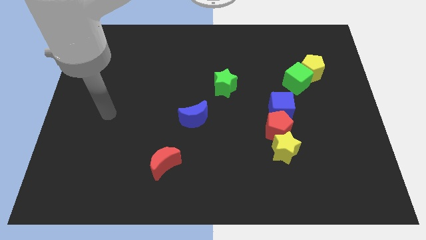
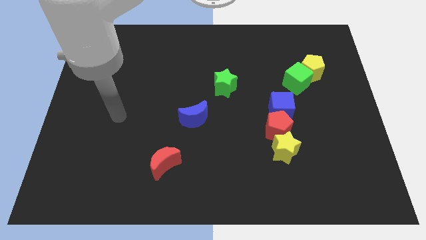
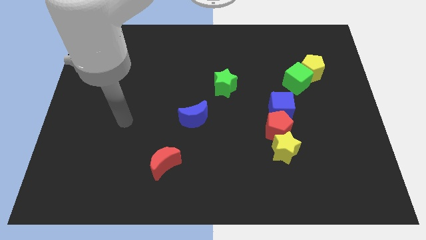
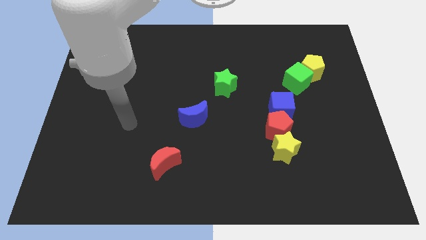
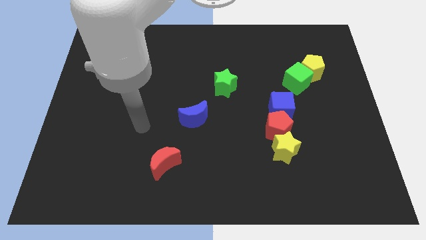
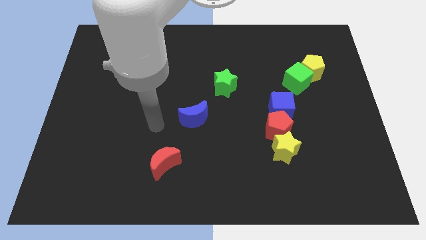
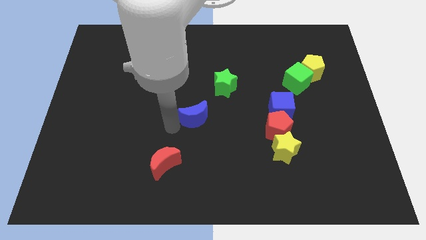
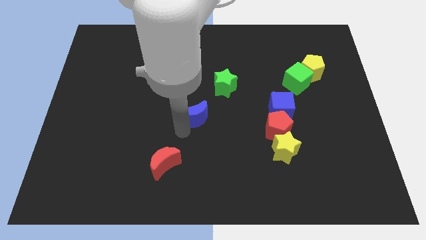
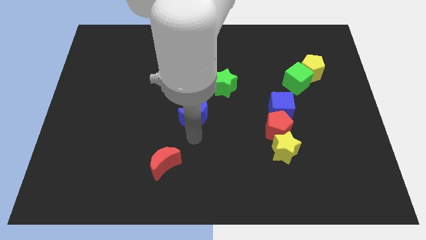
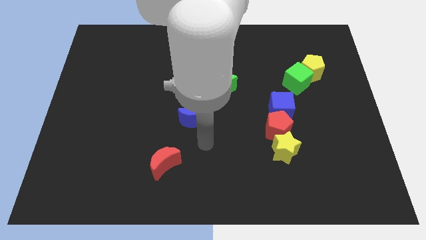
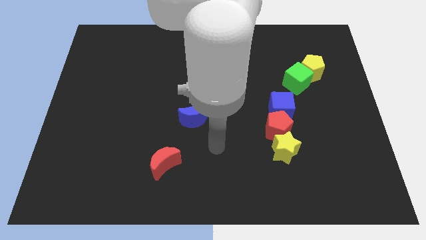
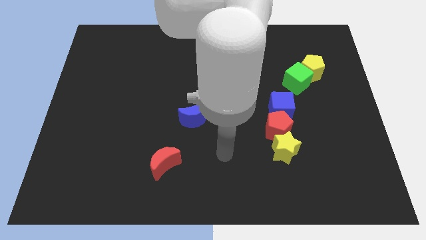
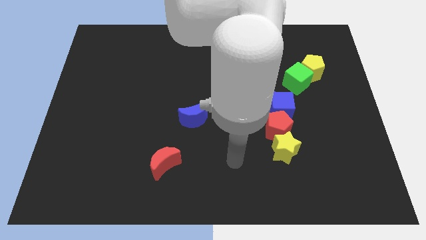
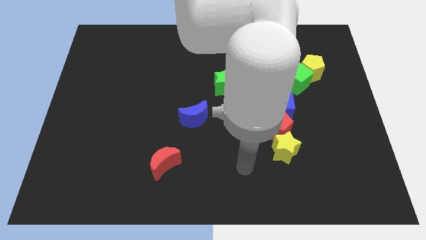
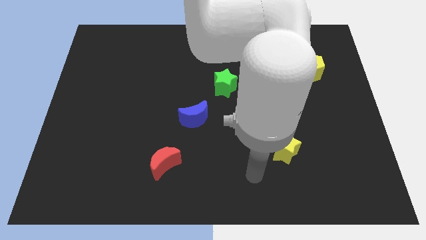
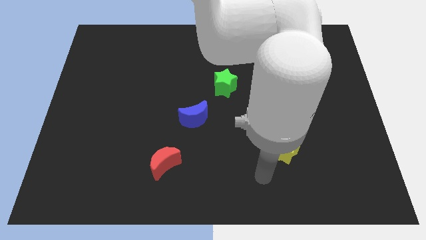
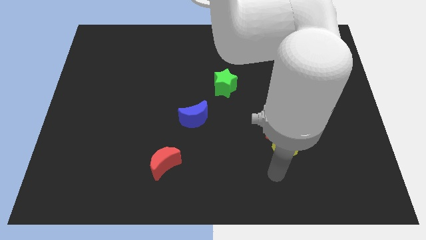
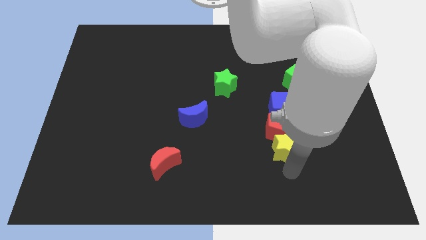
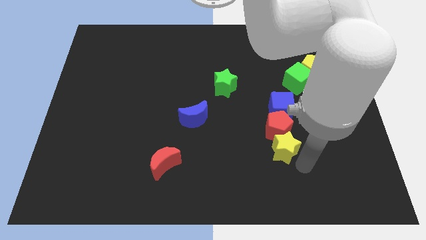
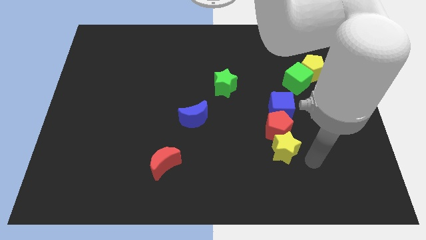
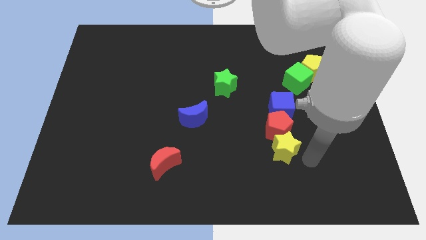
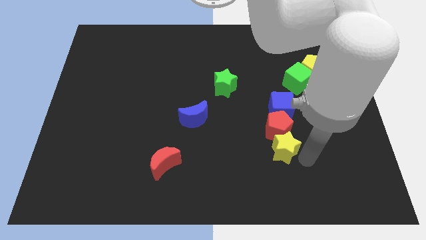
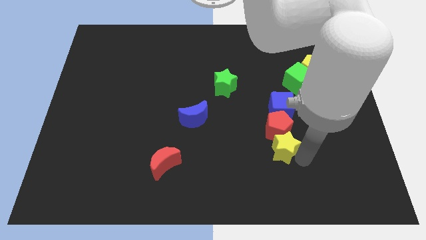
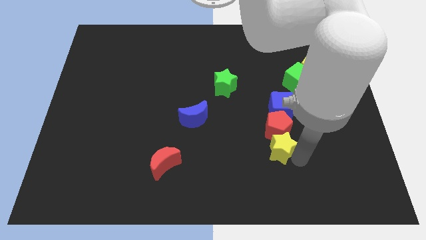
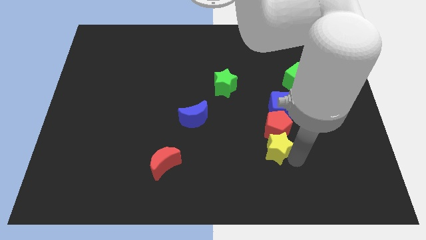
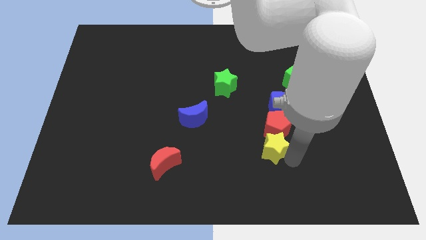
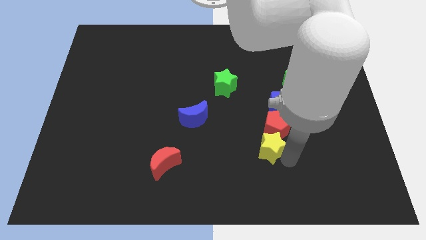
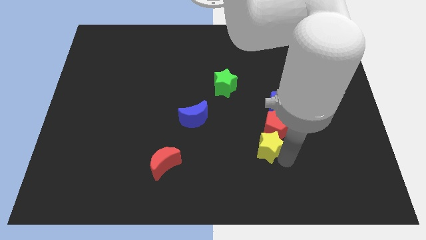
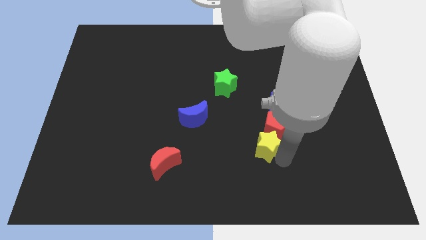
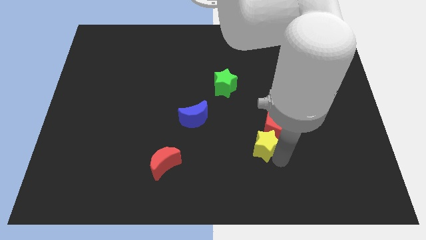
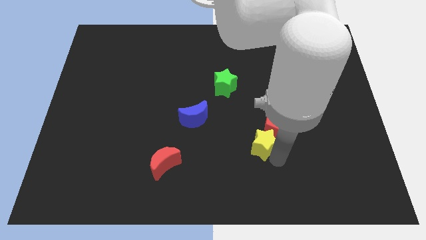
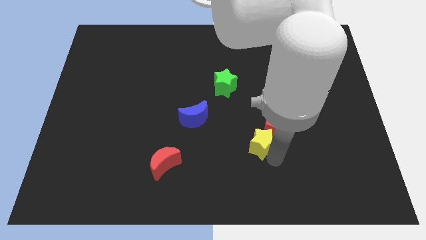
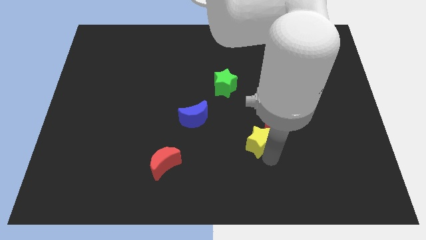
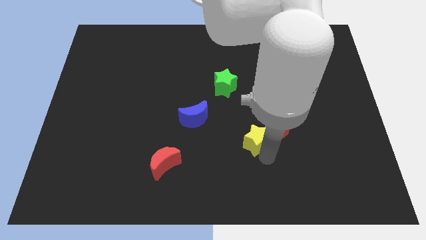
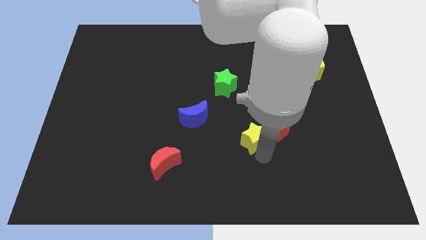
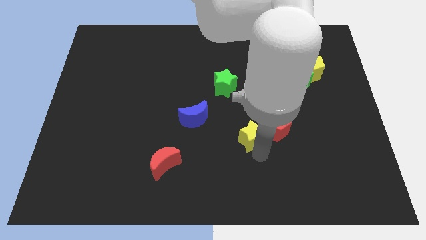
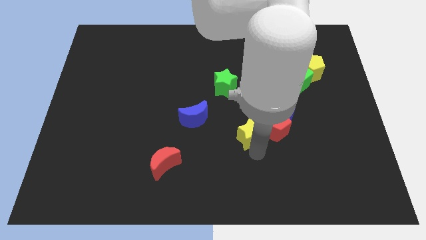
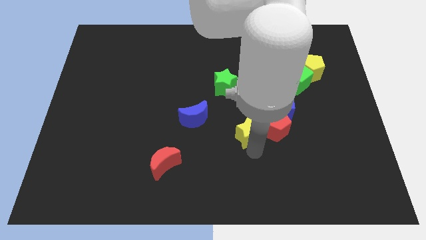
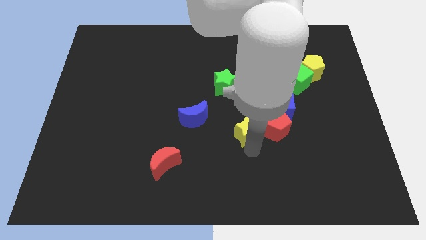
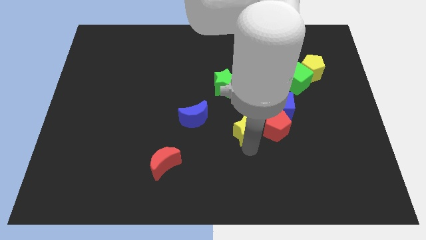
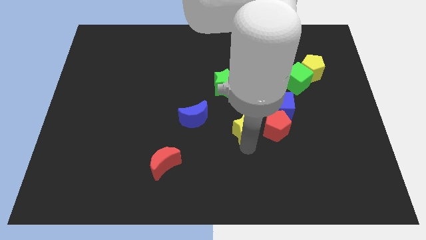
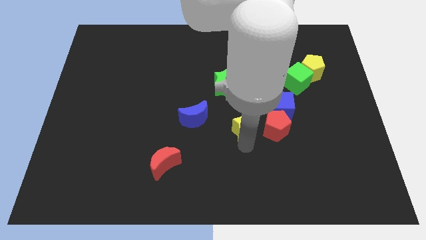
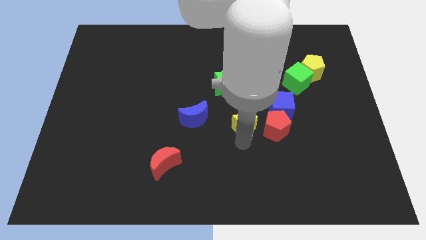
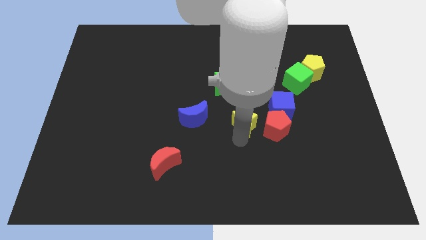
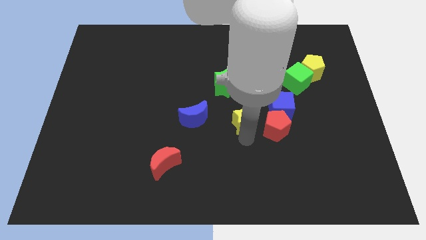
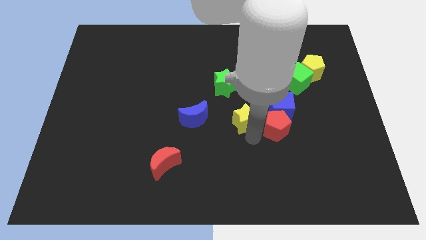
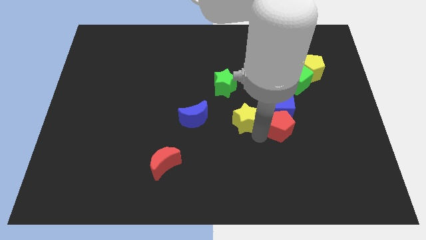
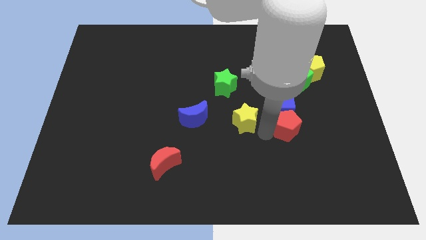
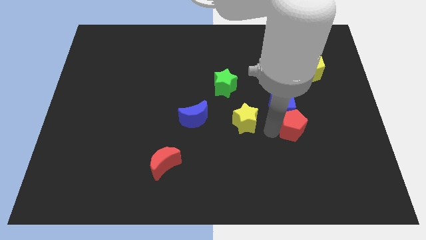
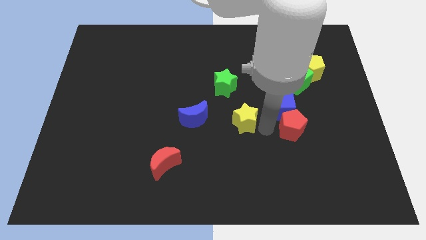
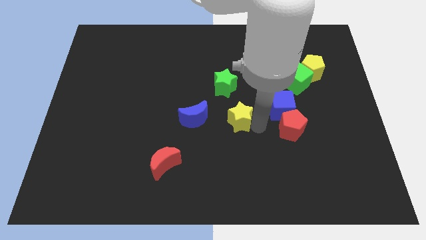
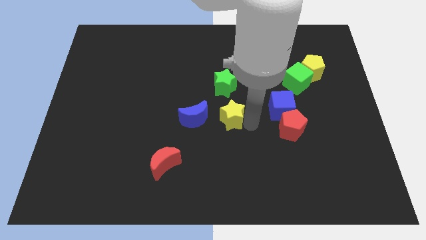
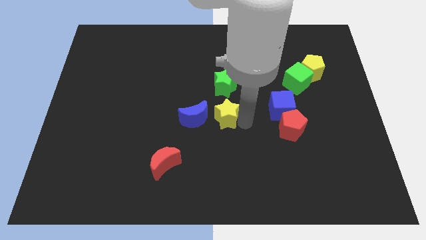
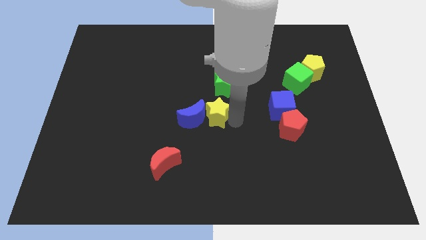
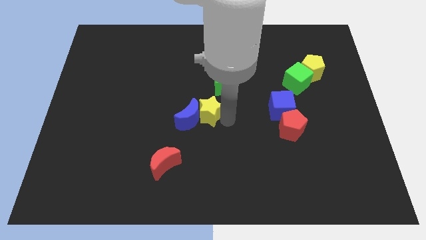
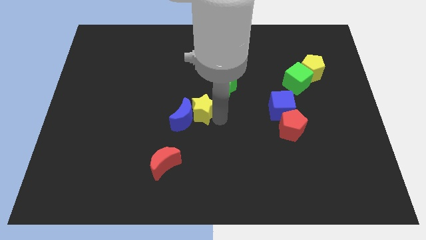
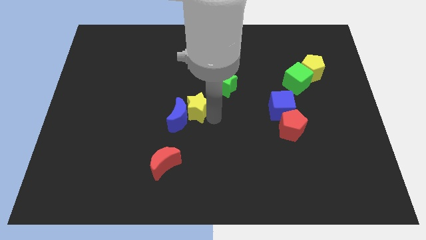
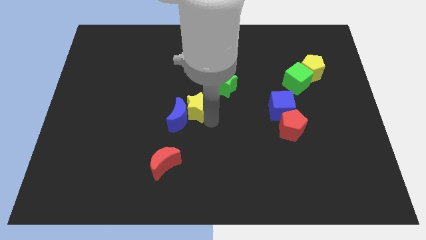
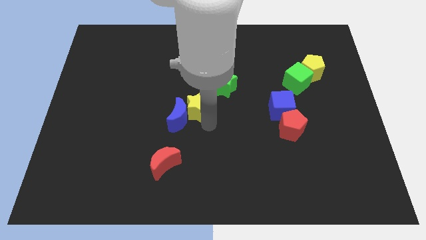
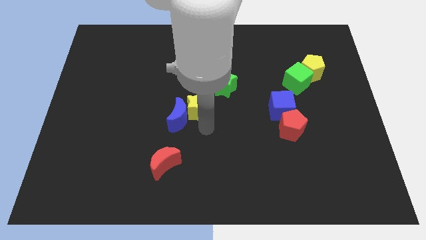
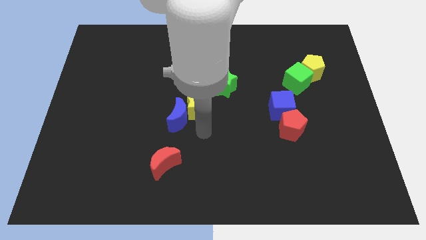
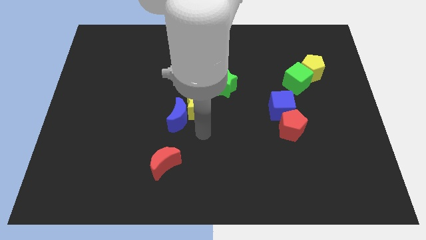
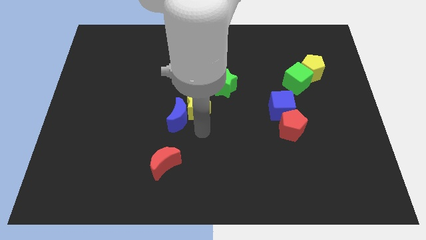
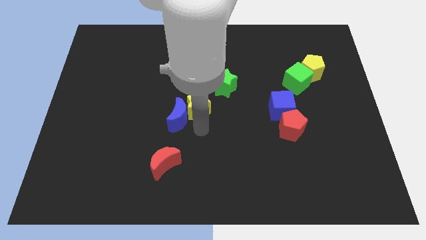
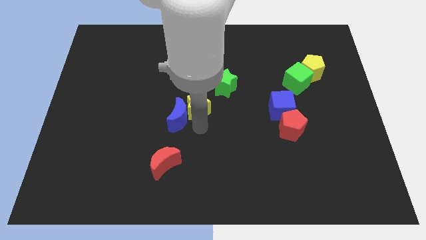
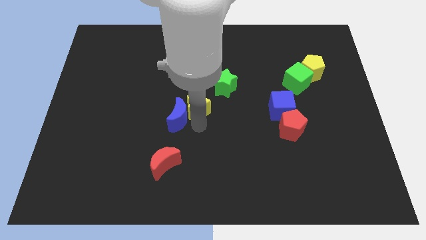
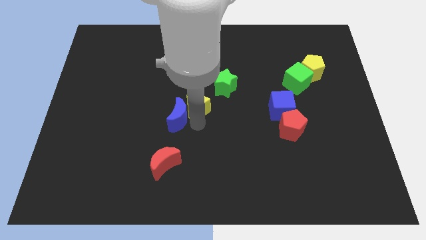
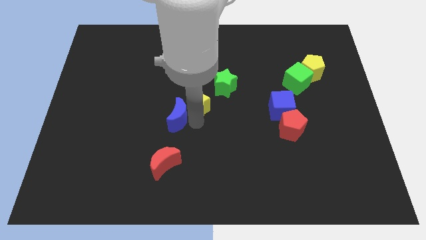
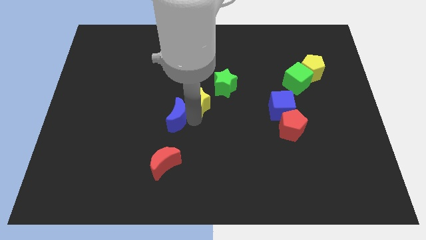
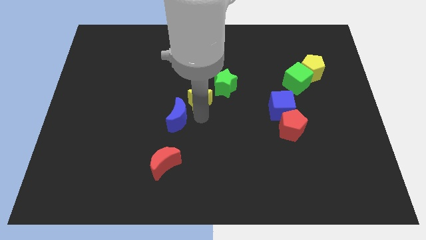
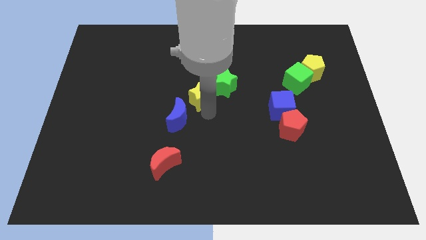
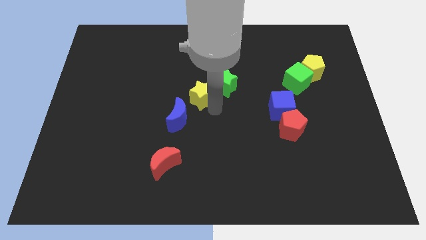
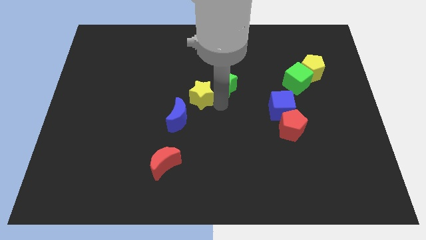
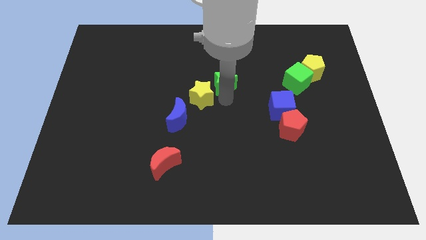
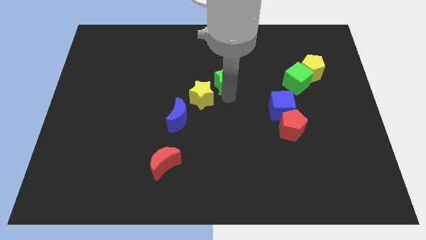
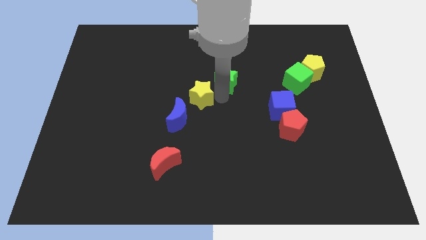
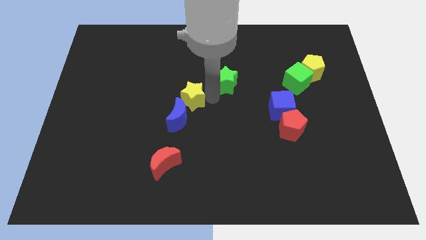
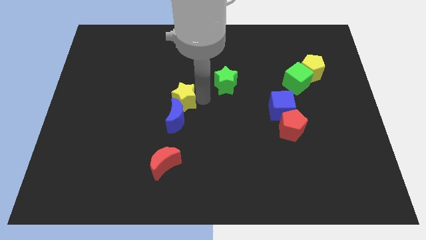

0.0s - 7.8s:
move the yellow star to the top left side of the blue moon
